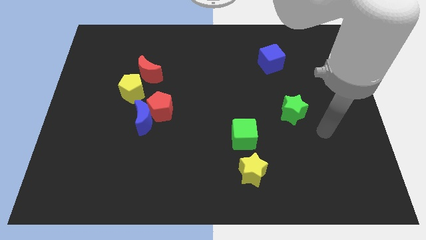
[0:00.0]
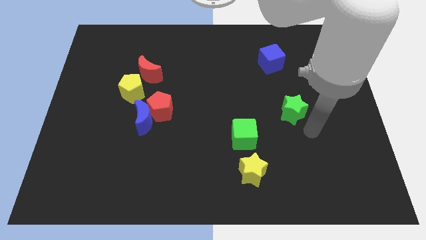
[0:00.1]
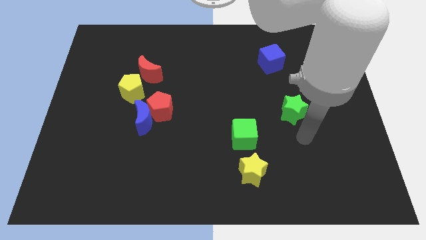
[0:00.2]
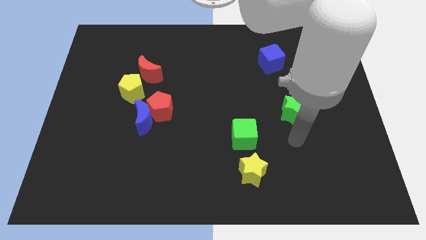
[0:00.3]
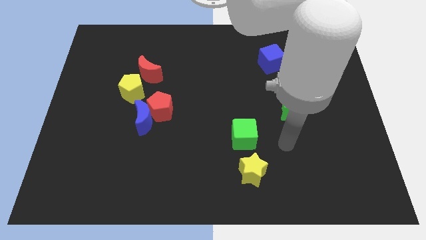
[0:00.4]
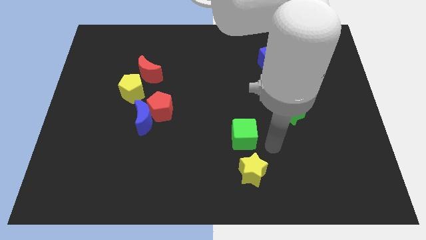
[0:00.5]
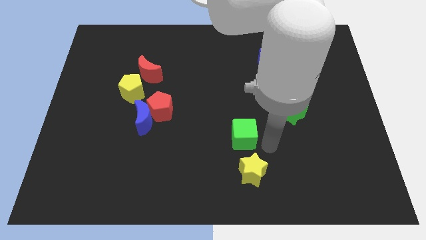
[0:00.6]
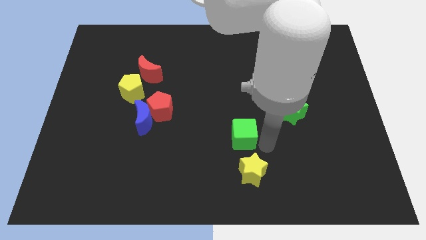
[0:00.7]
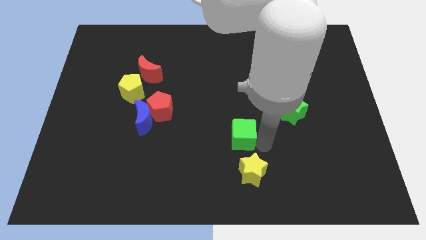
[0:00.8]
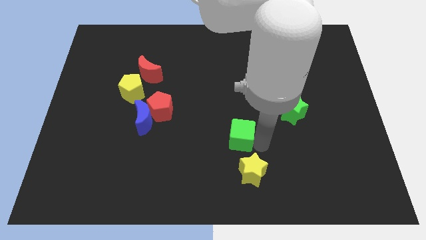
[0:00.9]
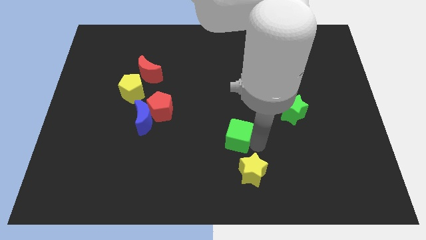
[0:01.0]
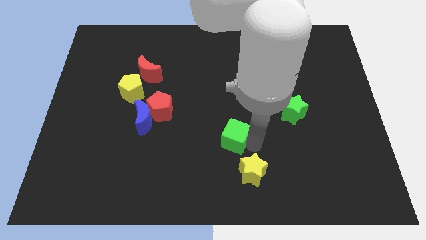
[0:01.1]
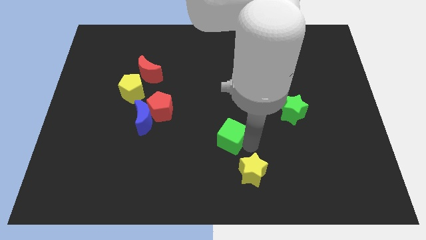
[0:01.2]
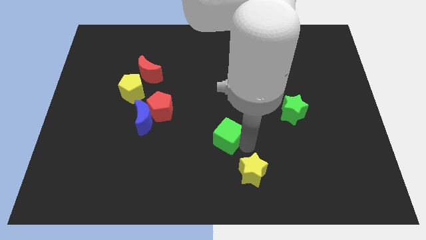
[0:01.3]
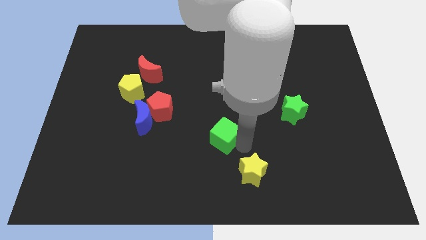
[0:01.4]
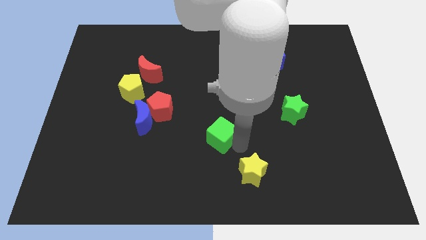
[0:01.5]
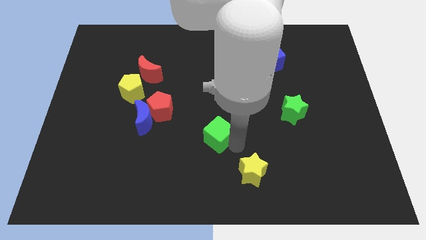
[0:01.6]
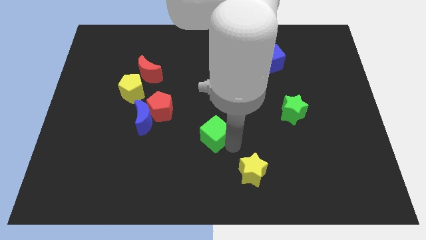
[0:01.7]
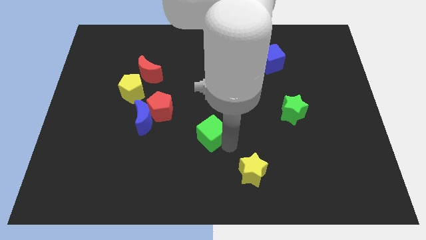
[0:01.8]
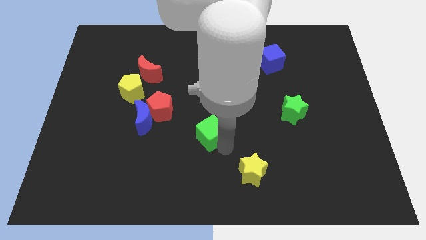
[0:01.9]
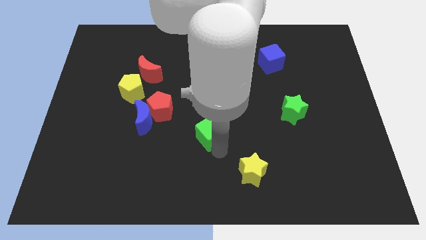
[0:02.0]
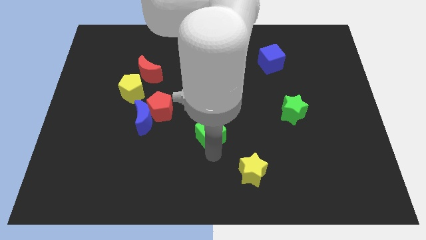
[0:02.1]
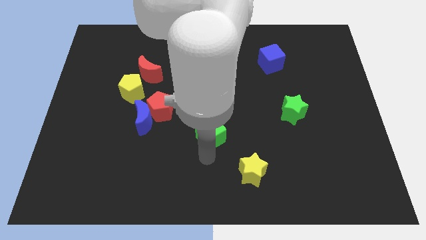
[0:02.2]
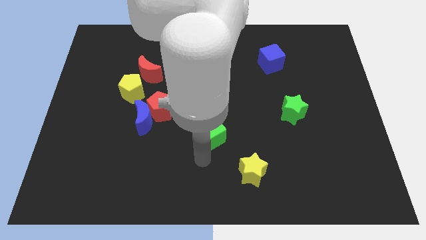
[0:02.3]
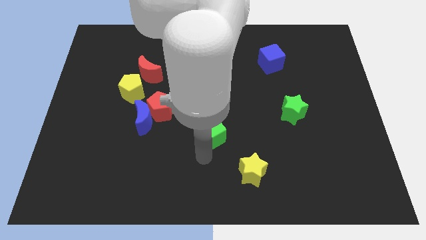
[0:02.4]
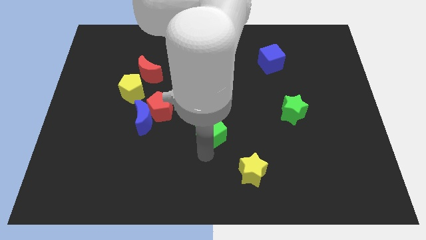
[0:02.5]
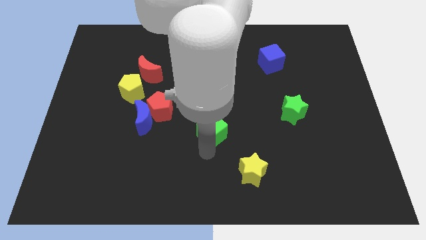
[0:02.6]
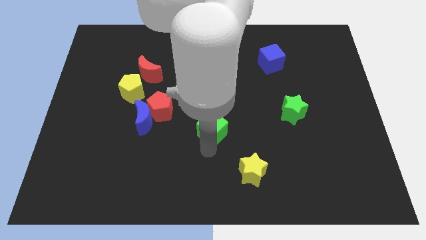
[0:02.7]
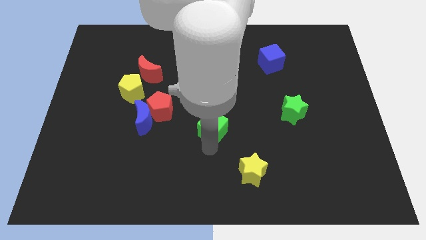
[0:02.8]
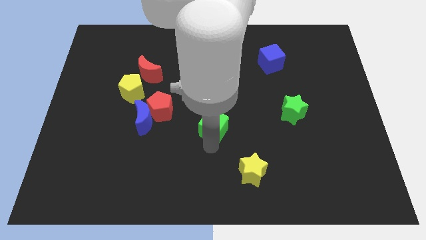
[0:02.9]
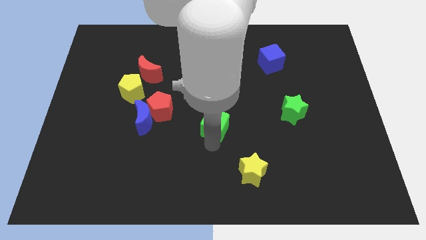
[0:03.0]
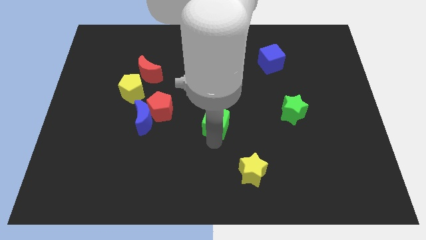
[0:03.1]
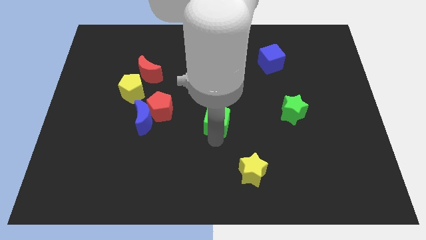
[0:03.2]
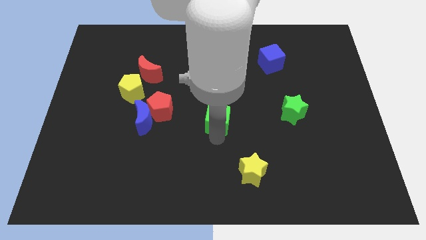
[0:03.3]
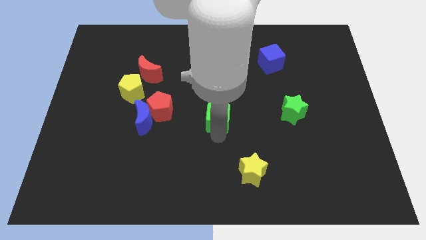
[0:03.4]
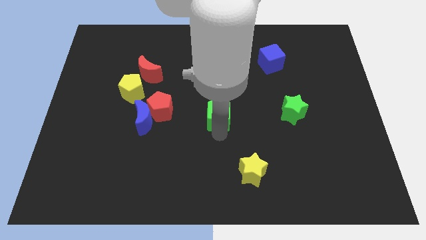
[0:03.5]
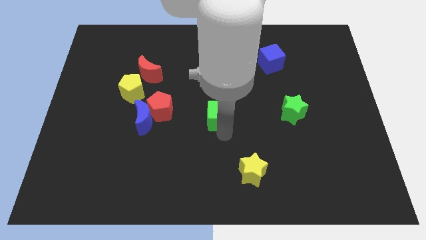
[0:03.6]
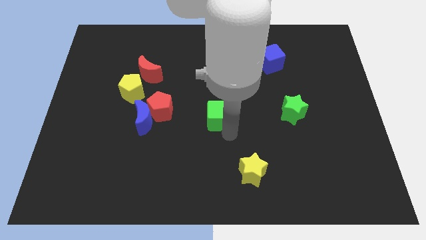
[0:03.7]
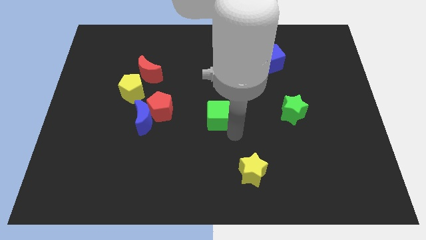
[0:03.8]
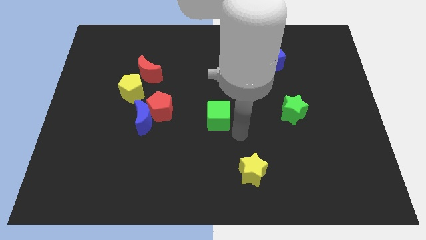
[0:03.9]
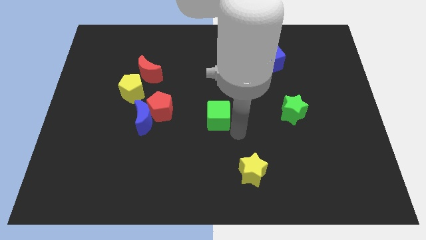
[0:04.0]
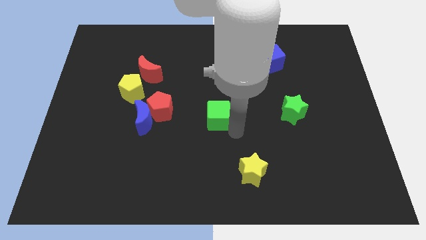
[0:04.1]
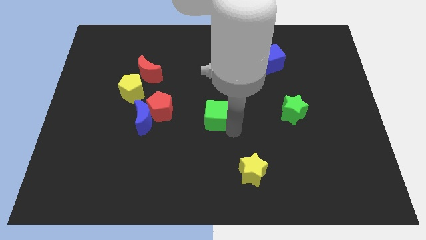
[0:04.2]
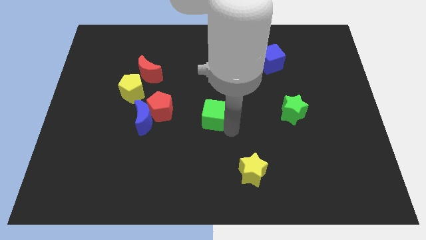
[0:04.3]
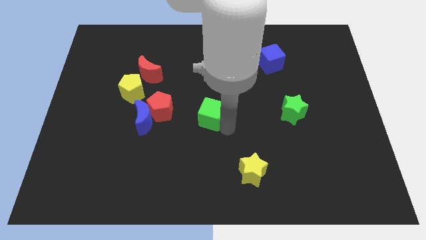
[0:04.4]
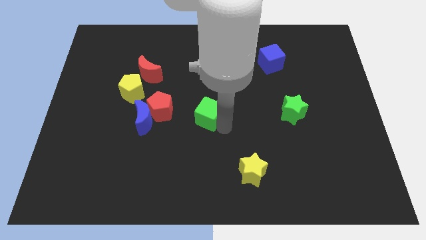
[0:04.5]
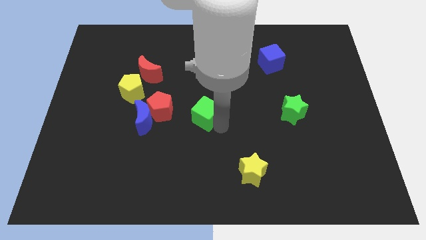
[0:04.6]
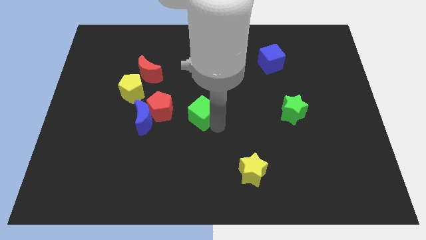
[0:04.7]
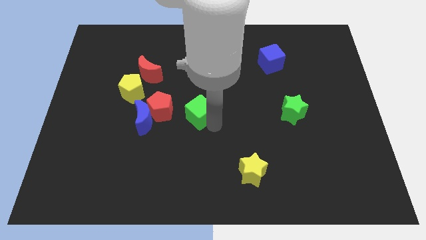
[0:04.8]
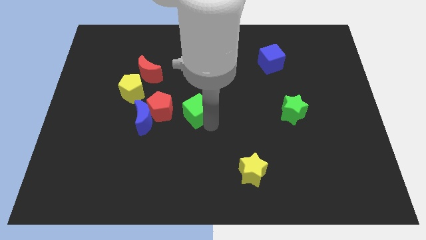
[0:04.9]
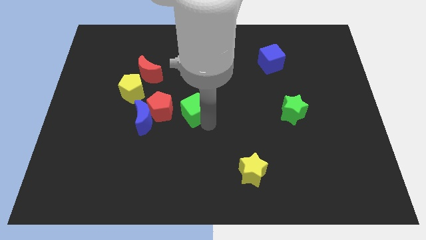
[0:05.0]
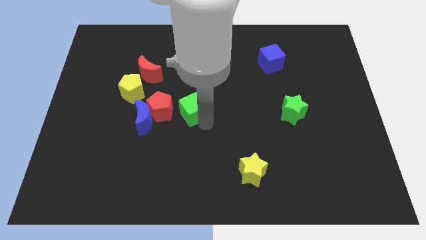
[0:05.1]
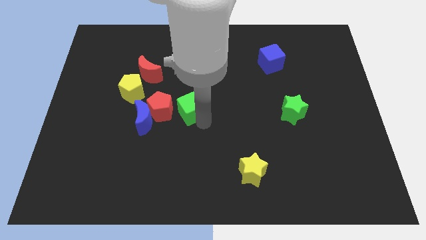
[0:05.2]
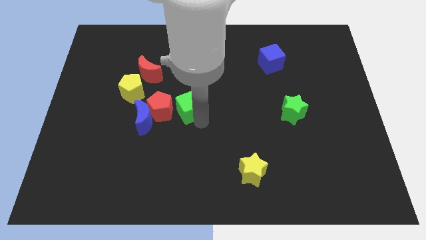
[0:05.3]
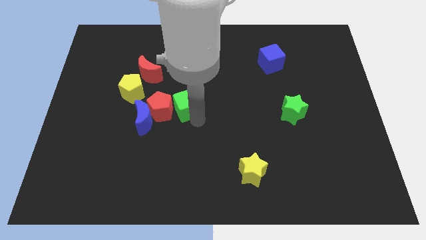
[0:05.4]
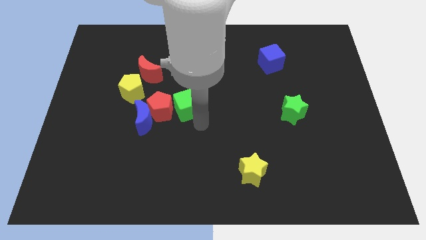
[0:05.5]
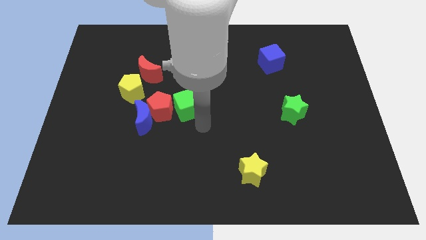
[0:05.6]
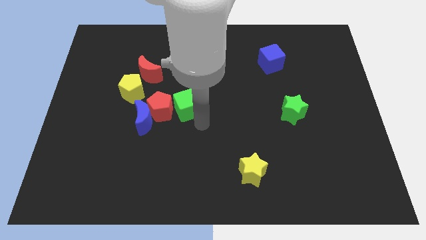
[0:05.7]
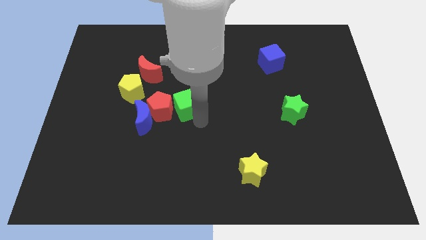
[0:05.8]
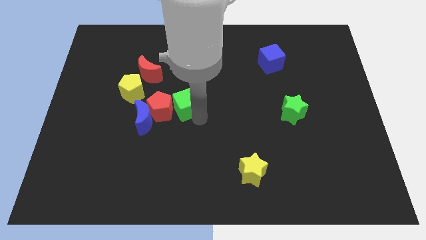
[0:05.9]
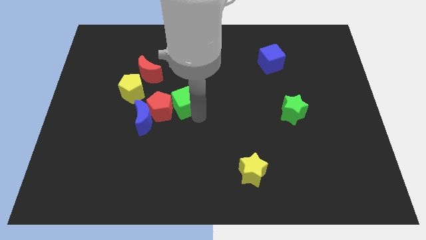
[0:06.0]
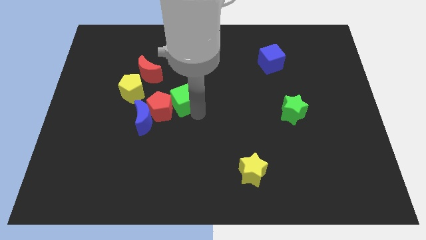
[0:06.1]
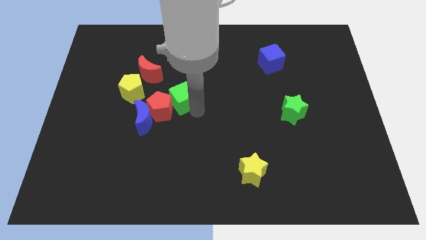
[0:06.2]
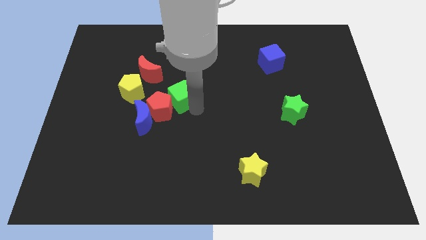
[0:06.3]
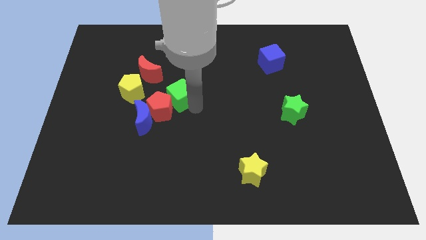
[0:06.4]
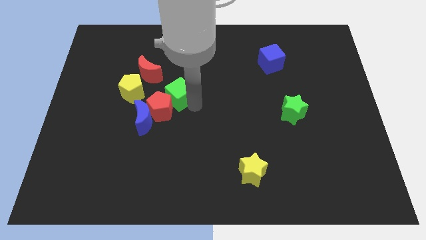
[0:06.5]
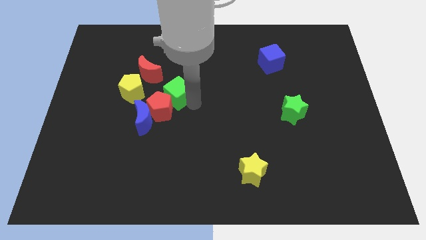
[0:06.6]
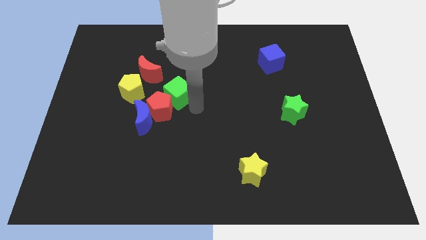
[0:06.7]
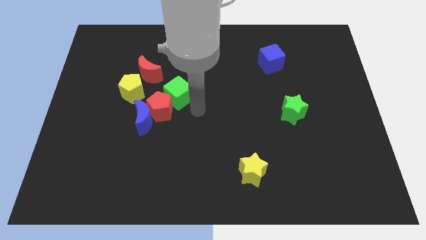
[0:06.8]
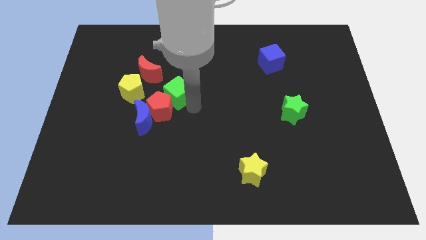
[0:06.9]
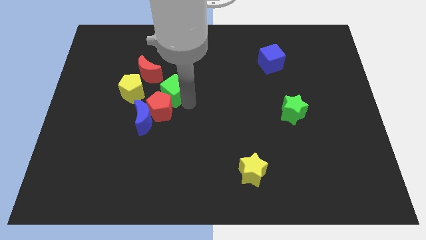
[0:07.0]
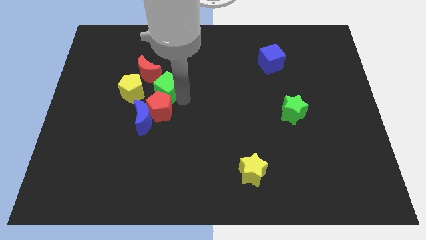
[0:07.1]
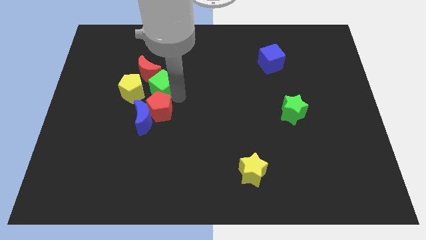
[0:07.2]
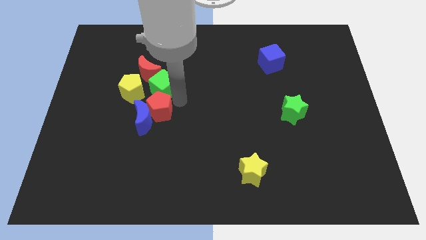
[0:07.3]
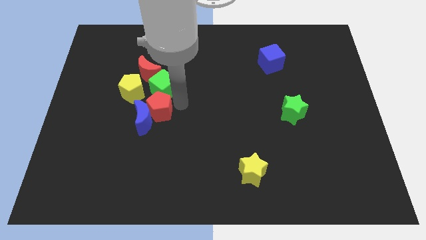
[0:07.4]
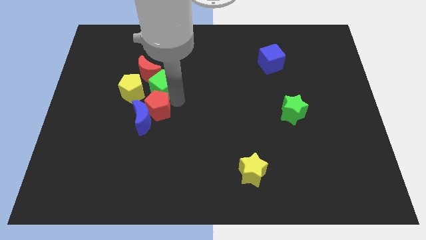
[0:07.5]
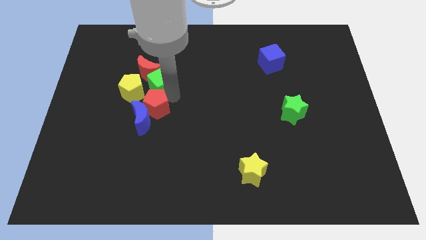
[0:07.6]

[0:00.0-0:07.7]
move the green cube close to the red moon
